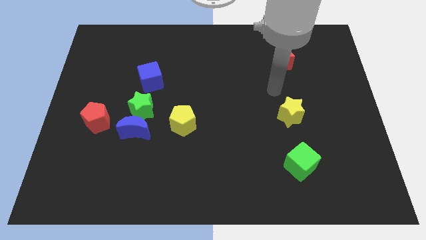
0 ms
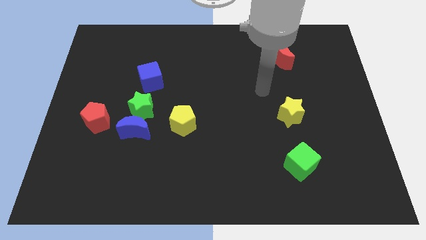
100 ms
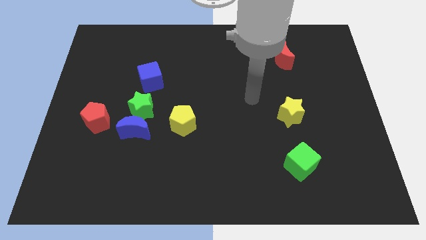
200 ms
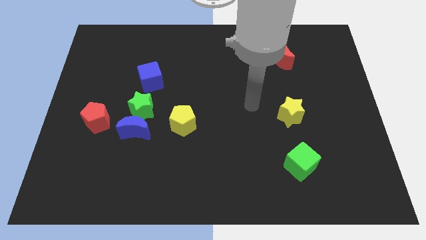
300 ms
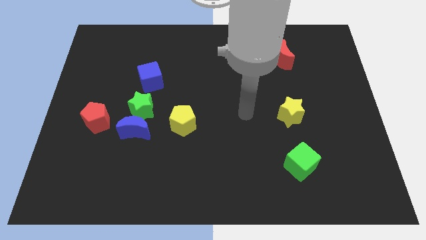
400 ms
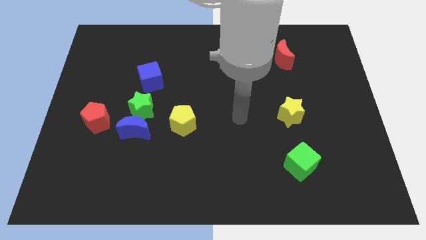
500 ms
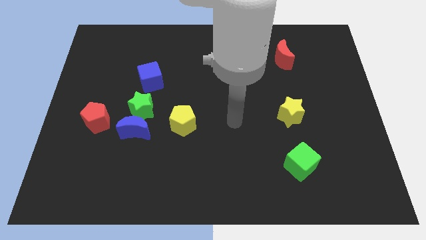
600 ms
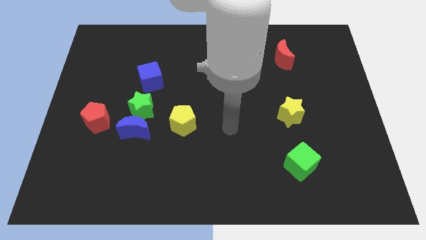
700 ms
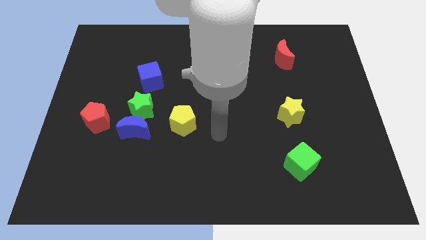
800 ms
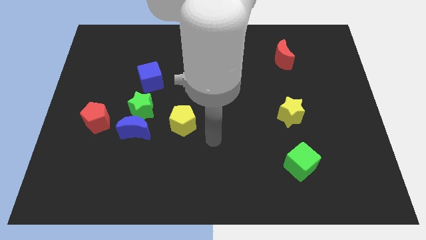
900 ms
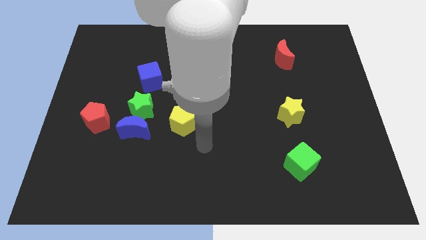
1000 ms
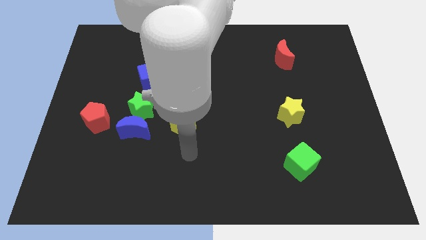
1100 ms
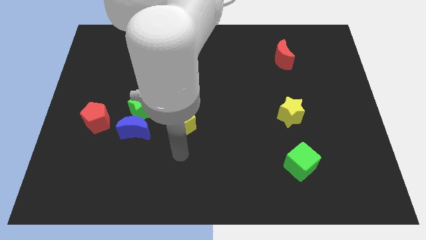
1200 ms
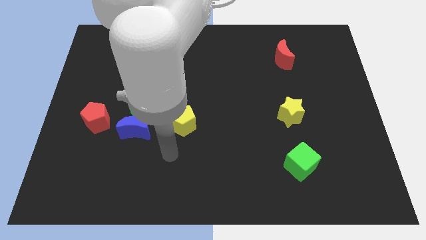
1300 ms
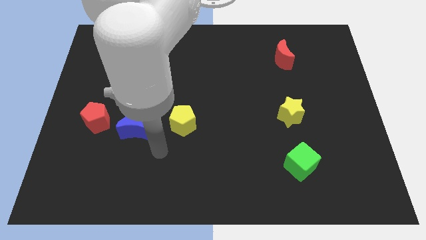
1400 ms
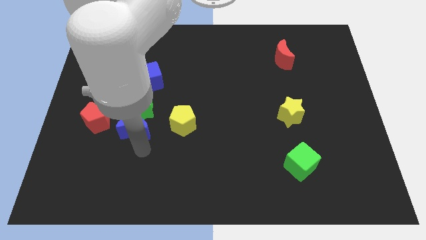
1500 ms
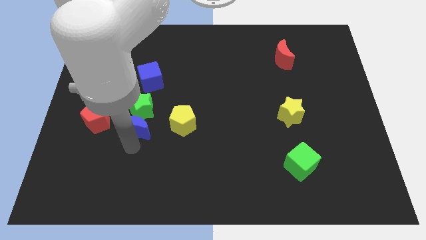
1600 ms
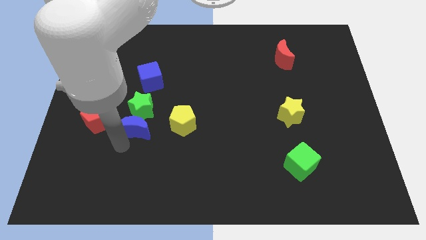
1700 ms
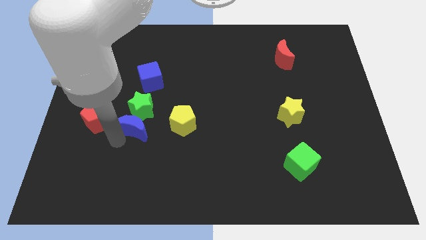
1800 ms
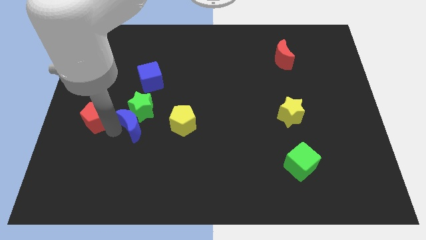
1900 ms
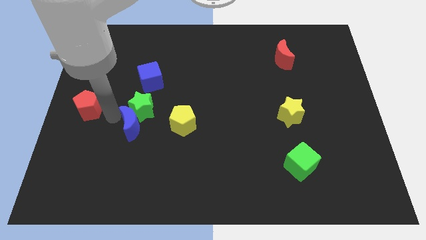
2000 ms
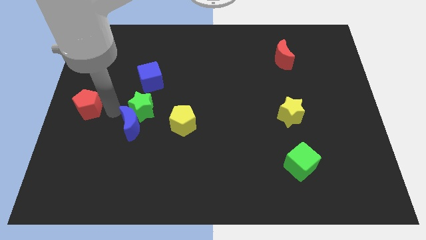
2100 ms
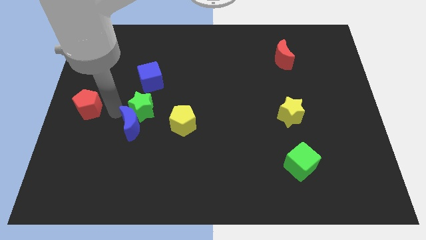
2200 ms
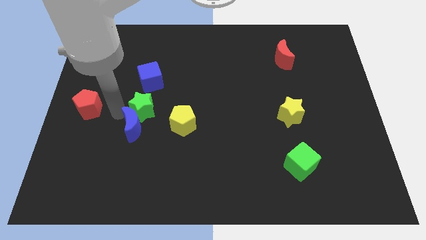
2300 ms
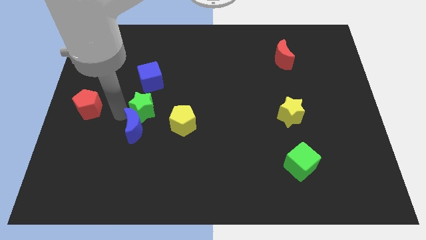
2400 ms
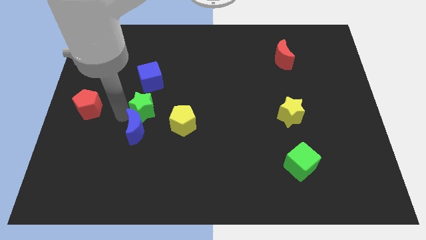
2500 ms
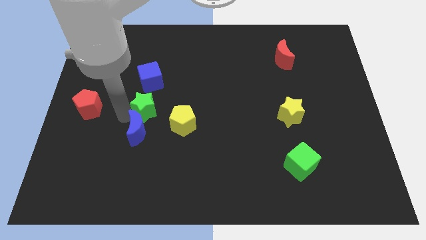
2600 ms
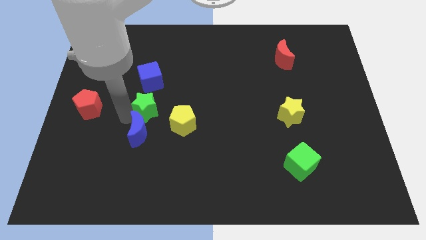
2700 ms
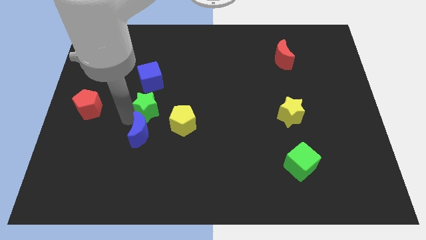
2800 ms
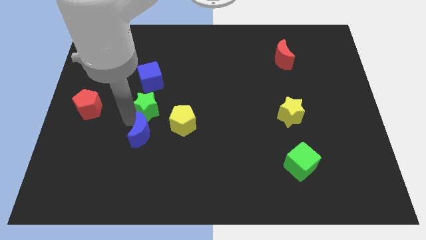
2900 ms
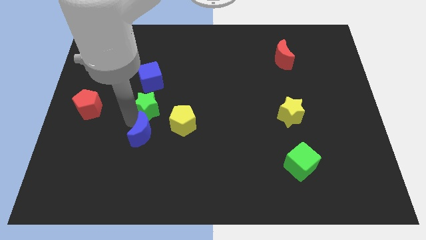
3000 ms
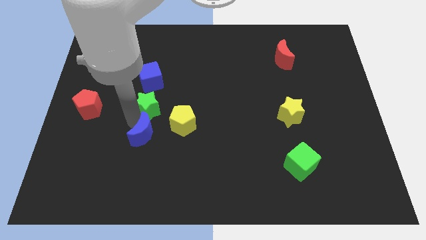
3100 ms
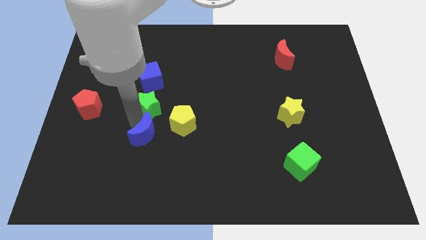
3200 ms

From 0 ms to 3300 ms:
move the blue moon away from the green star and red pentagon

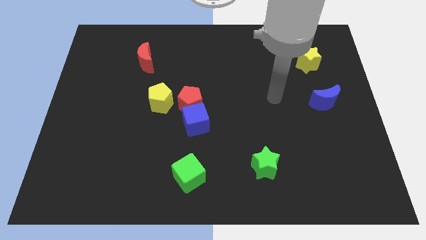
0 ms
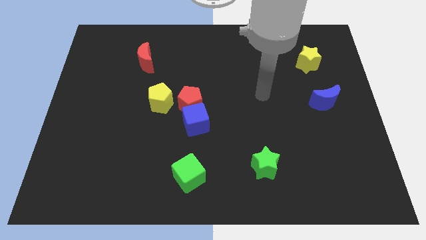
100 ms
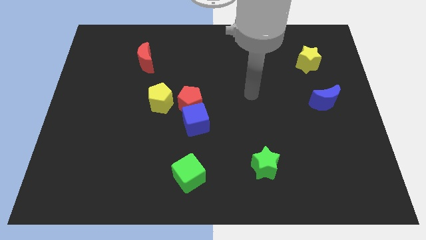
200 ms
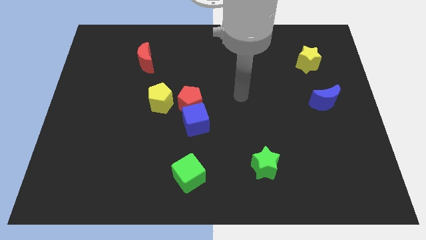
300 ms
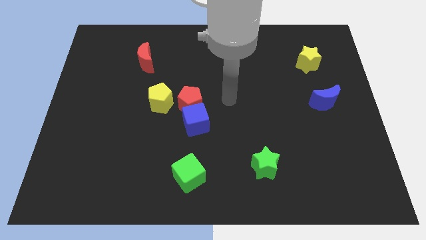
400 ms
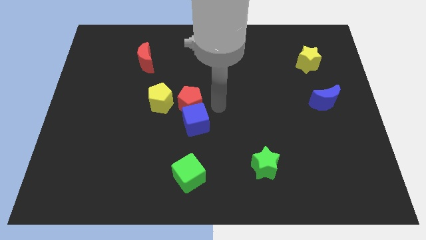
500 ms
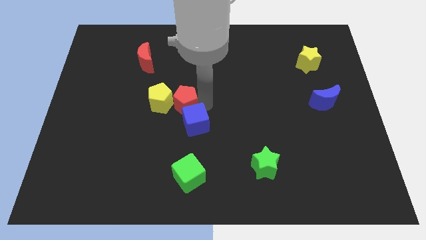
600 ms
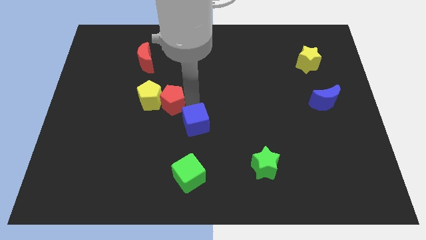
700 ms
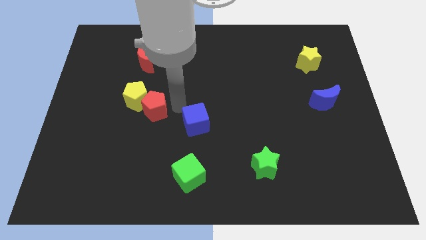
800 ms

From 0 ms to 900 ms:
pull the blue cube apart from the red pentagon

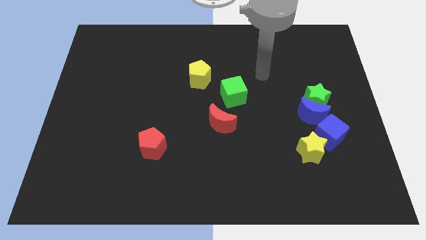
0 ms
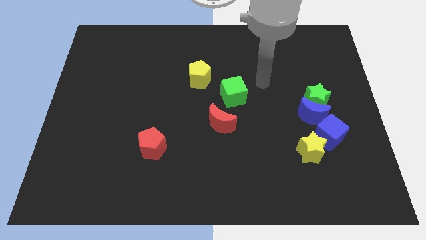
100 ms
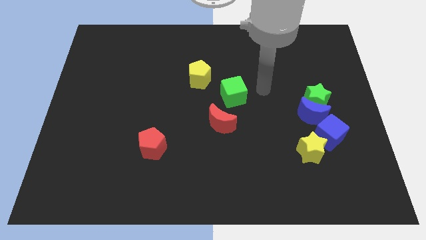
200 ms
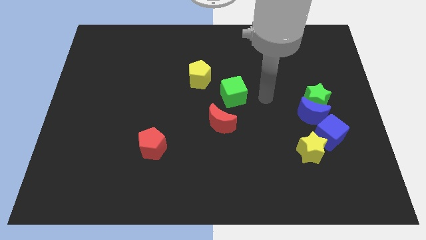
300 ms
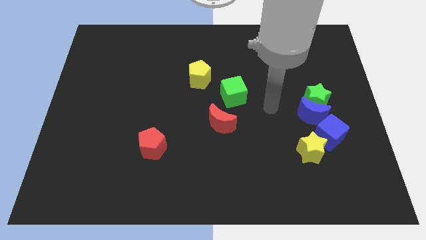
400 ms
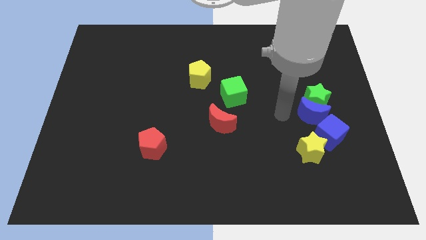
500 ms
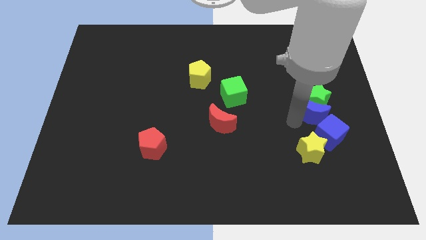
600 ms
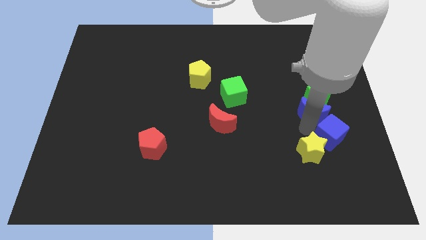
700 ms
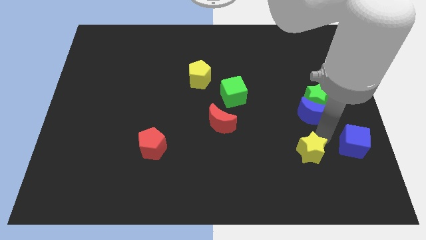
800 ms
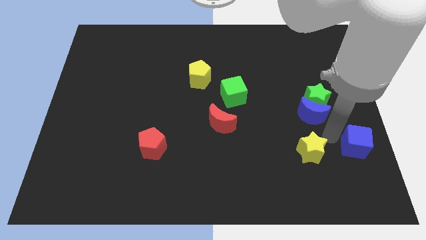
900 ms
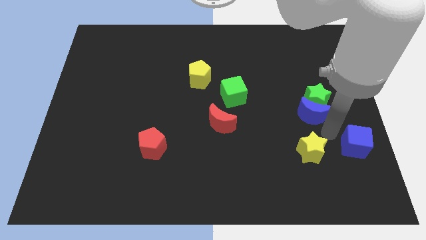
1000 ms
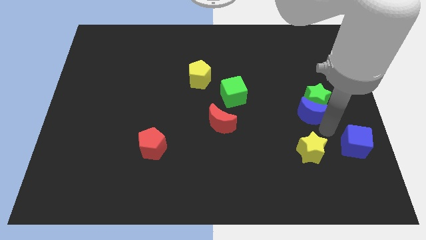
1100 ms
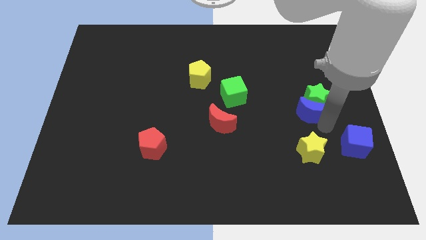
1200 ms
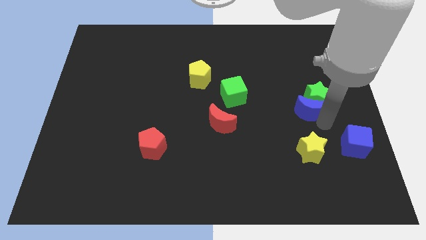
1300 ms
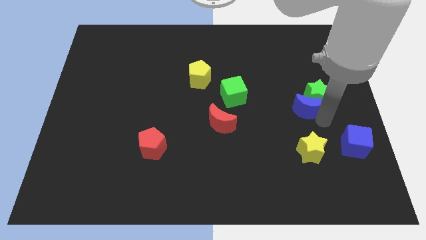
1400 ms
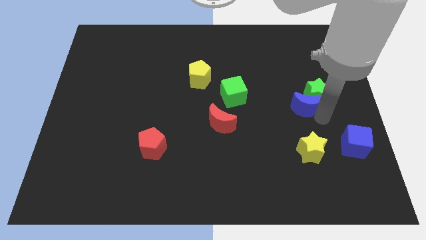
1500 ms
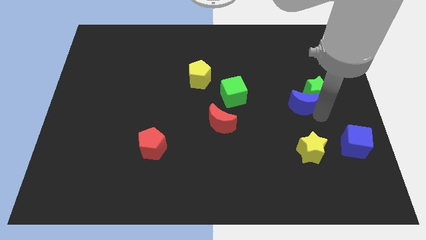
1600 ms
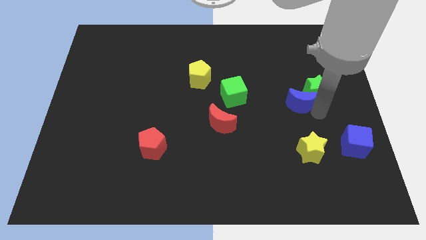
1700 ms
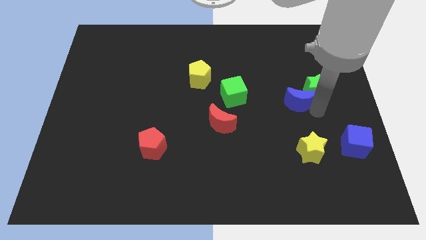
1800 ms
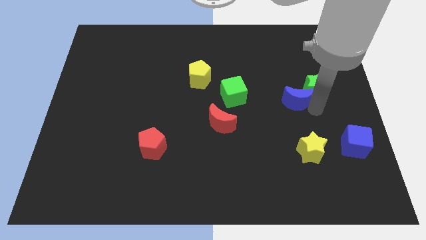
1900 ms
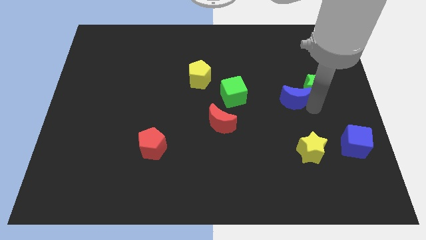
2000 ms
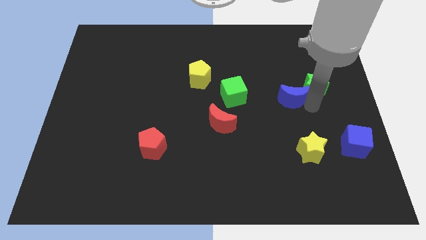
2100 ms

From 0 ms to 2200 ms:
move the blue moon away from the green star, blue cube, and yellow star

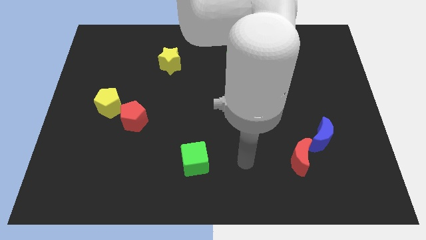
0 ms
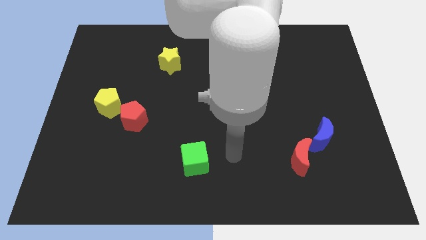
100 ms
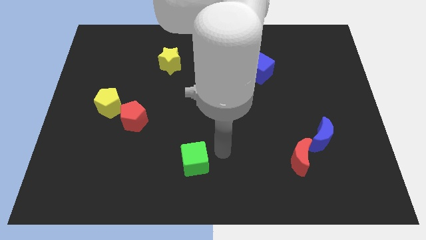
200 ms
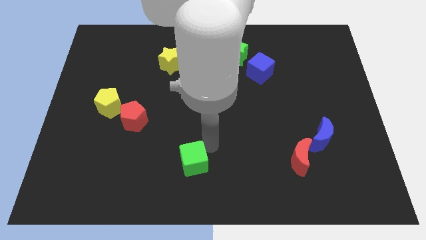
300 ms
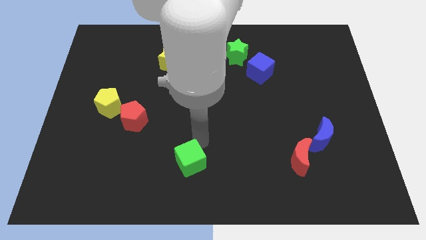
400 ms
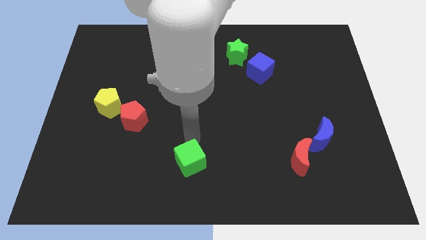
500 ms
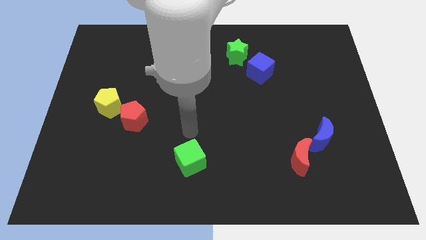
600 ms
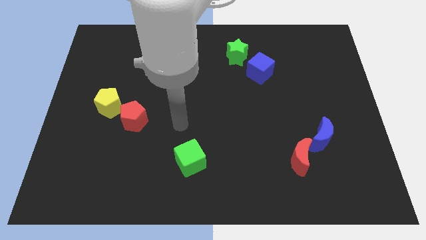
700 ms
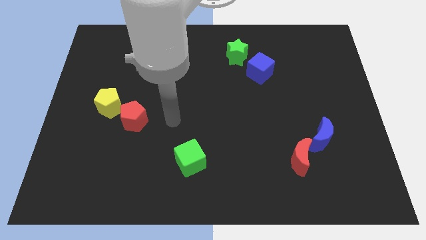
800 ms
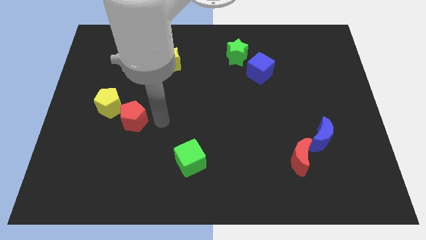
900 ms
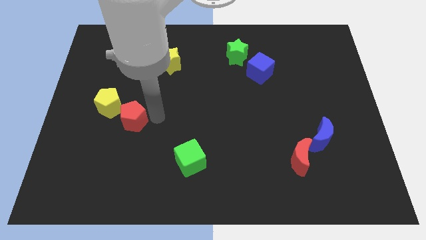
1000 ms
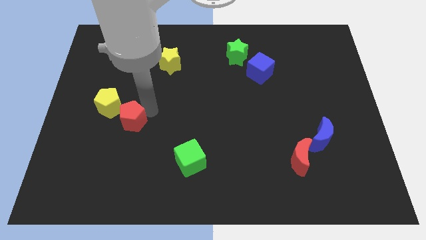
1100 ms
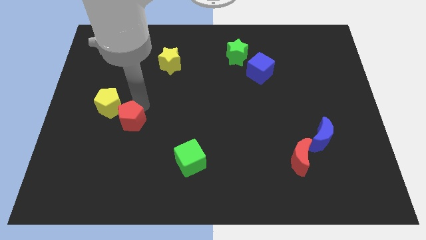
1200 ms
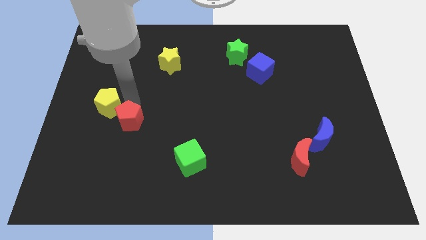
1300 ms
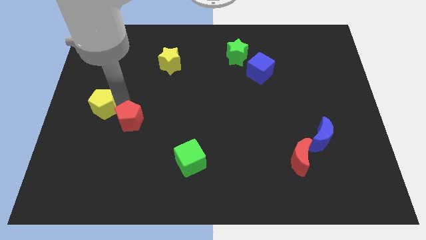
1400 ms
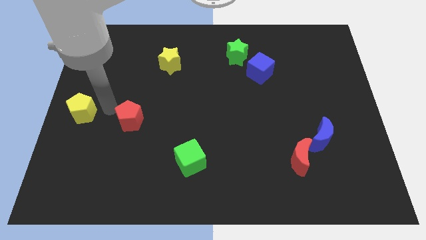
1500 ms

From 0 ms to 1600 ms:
separate the red pentagon from the yellow pentagon

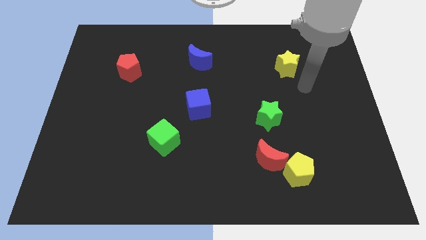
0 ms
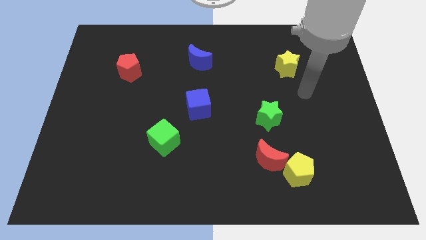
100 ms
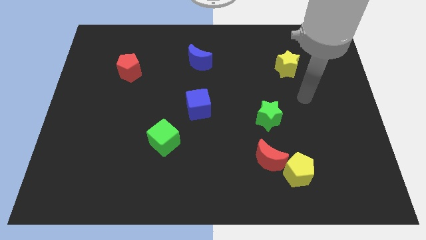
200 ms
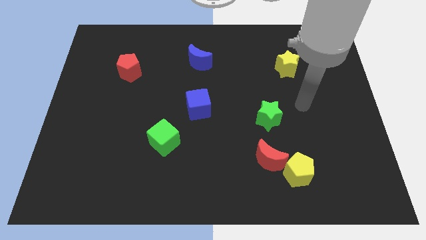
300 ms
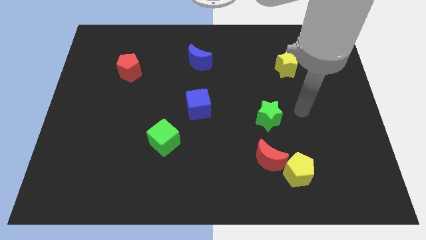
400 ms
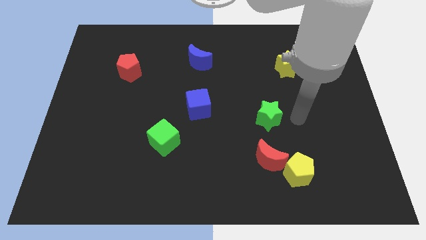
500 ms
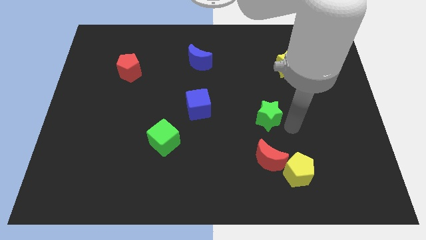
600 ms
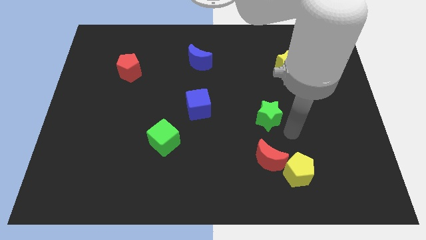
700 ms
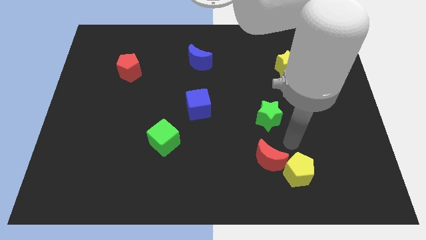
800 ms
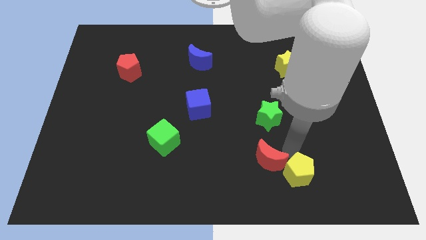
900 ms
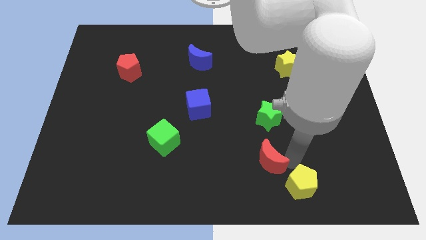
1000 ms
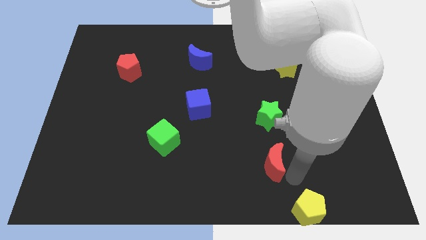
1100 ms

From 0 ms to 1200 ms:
pull the red moon apart from the yellow pentagon
